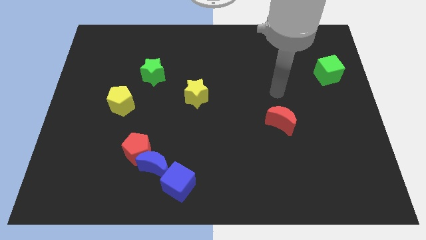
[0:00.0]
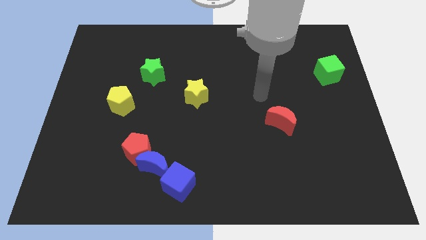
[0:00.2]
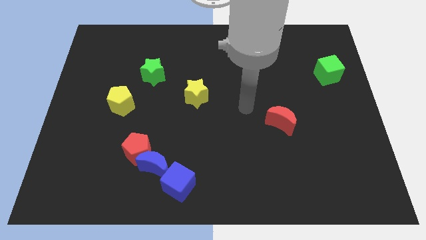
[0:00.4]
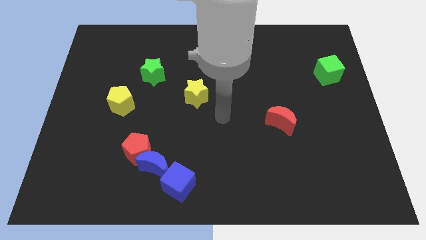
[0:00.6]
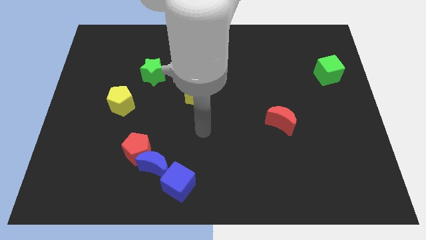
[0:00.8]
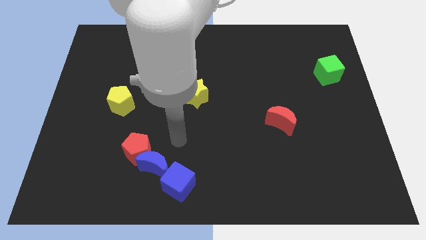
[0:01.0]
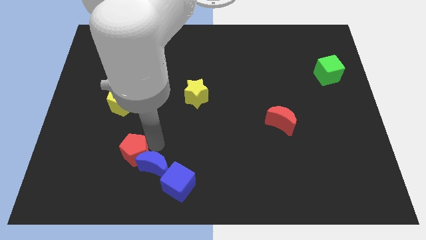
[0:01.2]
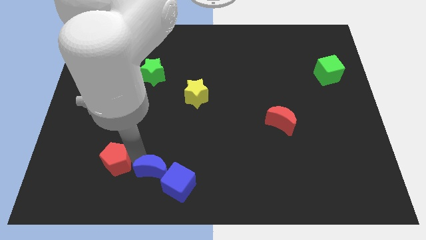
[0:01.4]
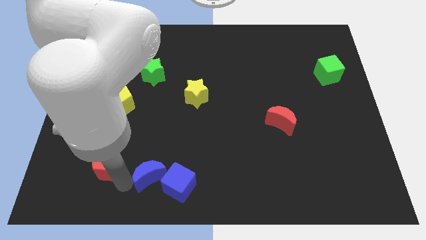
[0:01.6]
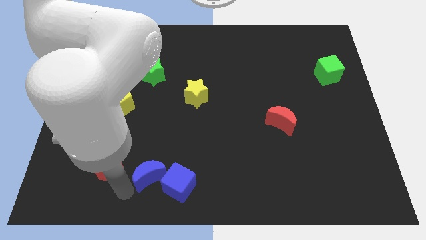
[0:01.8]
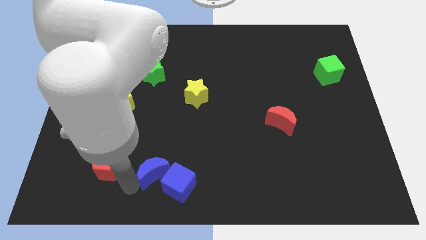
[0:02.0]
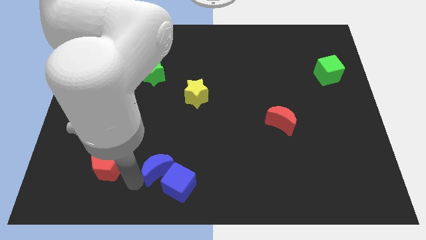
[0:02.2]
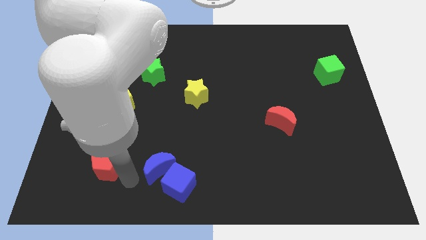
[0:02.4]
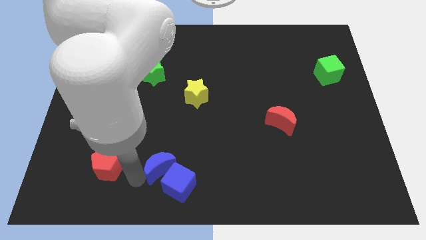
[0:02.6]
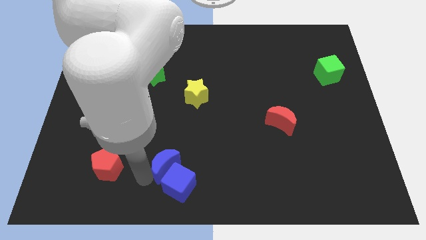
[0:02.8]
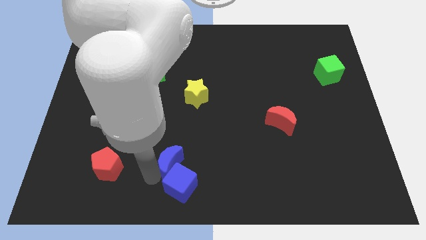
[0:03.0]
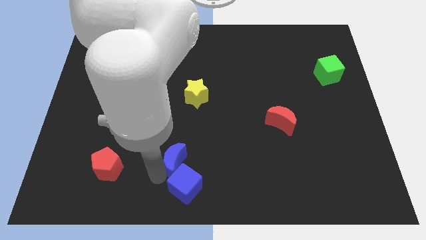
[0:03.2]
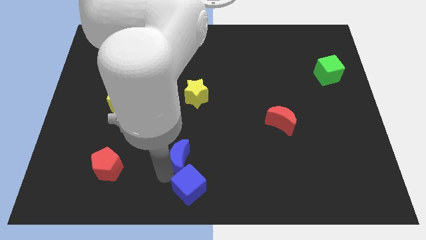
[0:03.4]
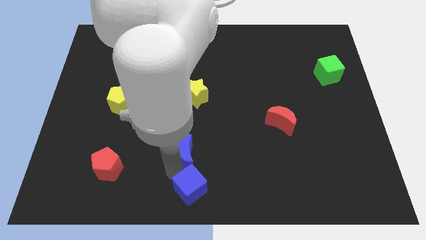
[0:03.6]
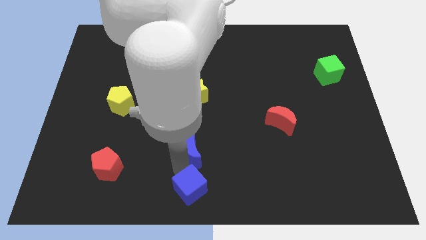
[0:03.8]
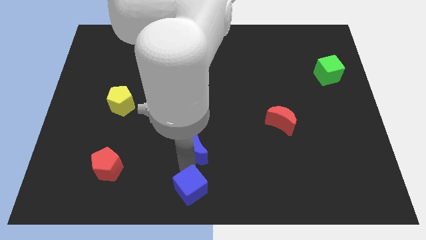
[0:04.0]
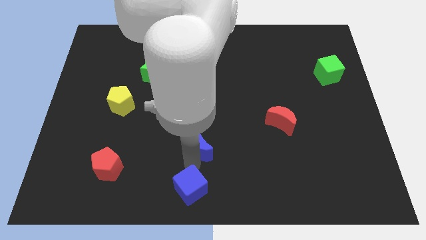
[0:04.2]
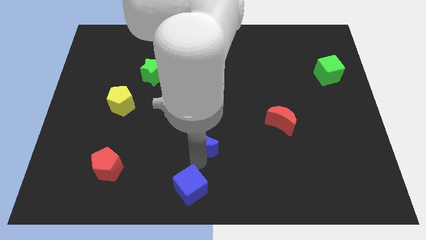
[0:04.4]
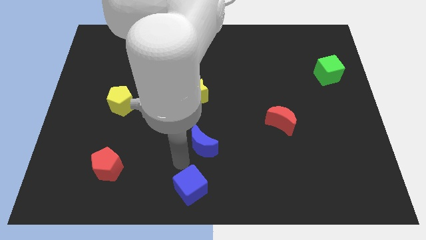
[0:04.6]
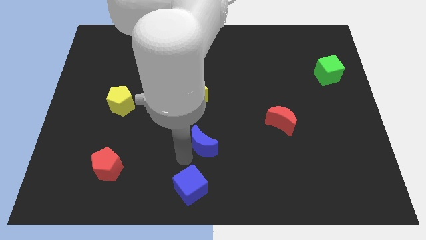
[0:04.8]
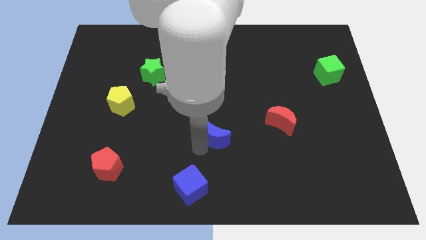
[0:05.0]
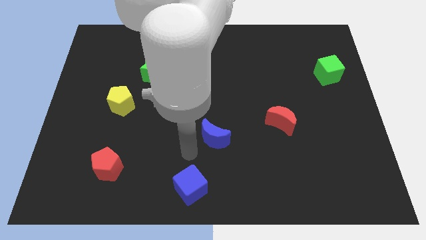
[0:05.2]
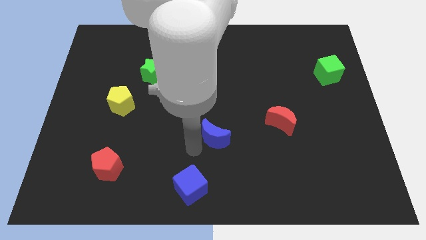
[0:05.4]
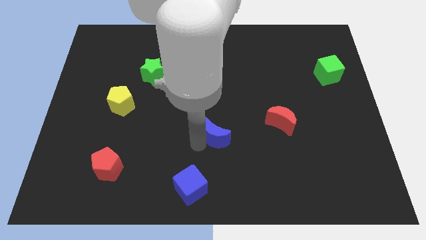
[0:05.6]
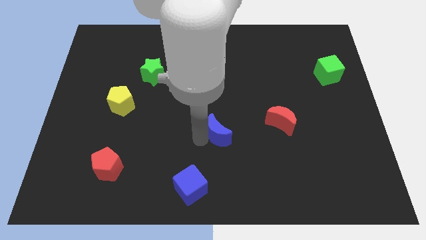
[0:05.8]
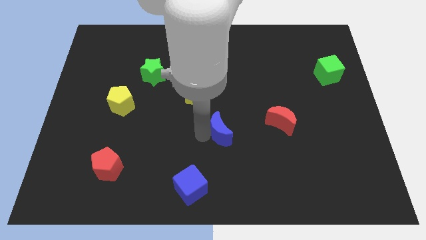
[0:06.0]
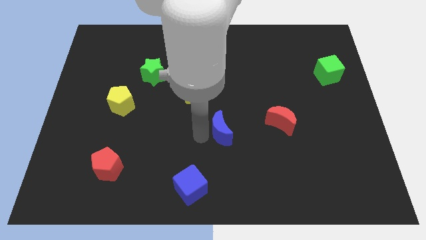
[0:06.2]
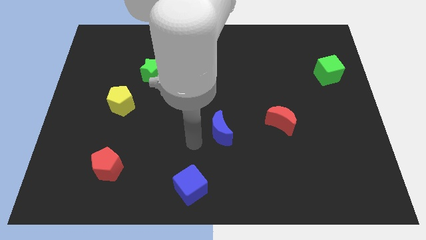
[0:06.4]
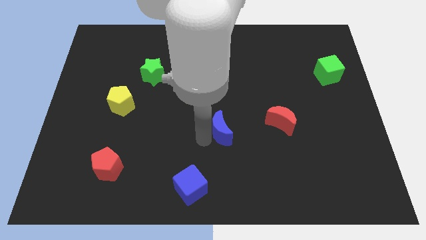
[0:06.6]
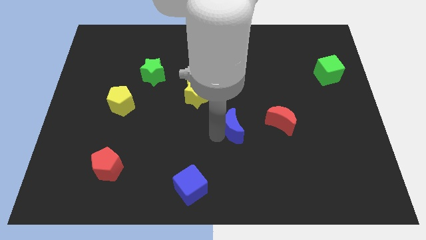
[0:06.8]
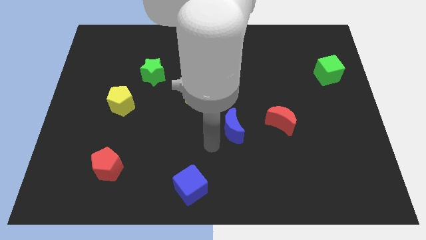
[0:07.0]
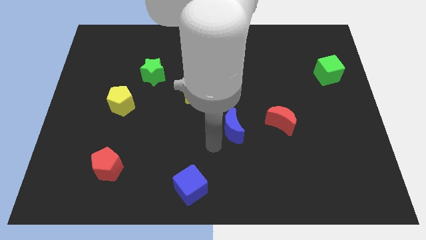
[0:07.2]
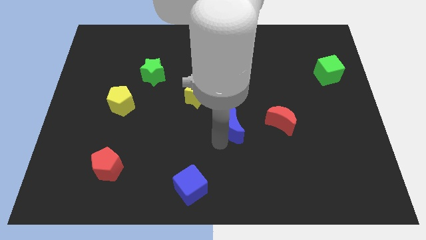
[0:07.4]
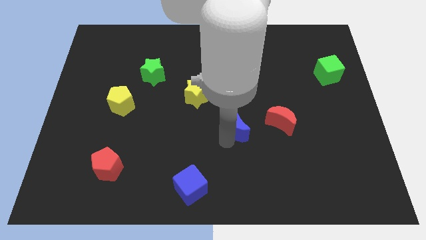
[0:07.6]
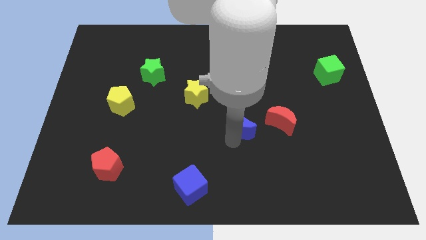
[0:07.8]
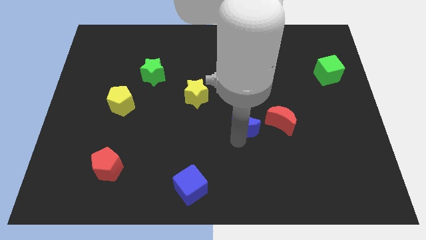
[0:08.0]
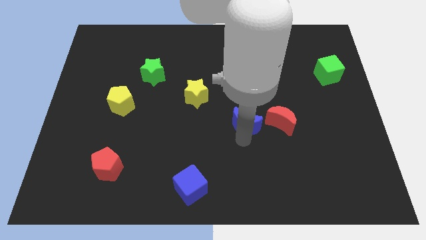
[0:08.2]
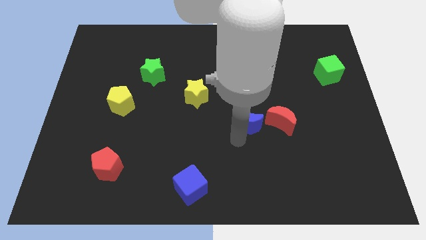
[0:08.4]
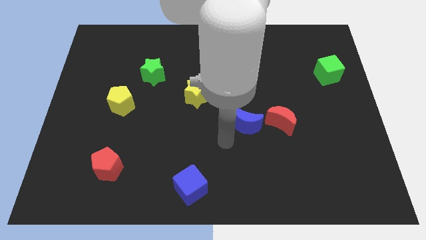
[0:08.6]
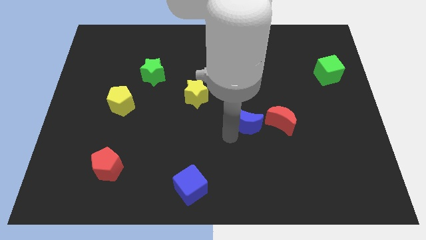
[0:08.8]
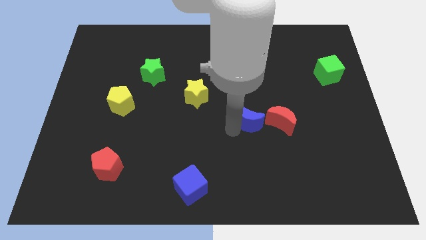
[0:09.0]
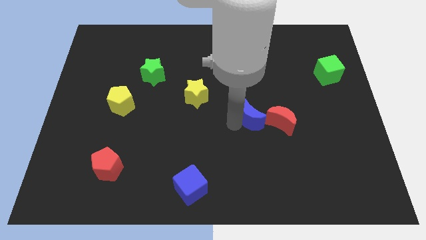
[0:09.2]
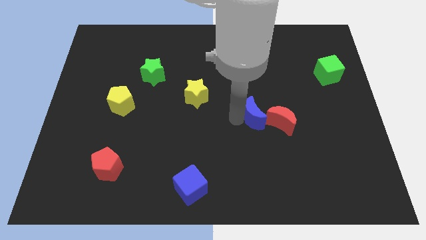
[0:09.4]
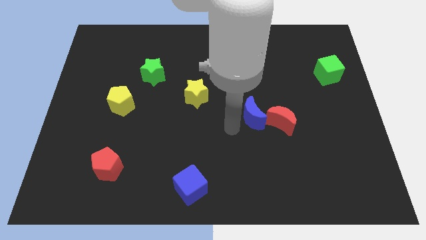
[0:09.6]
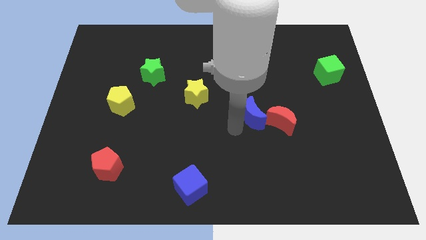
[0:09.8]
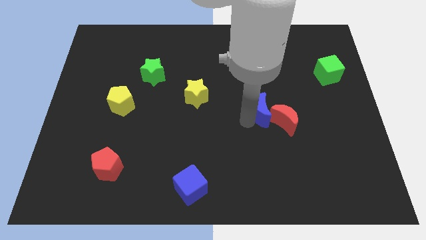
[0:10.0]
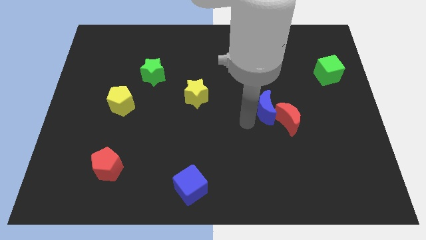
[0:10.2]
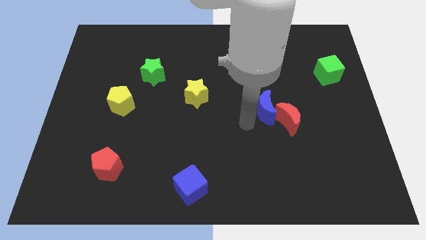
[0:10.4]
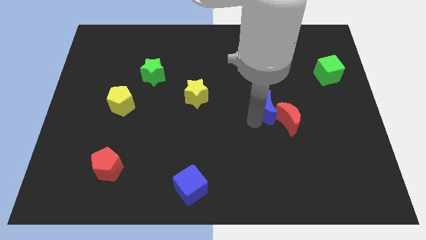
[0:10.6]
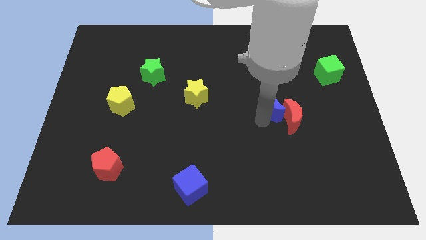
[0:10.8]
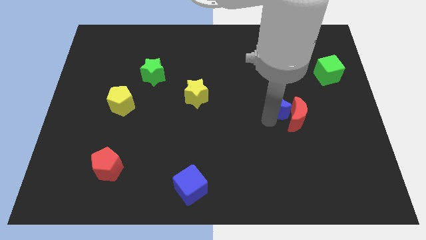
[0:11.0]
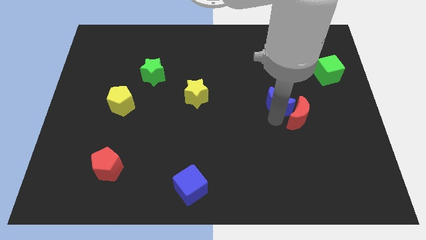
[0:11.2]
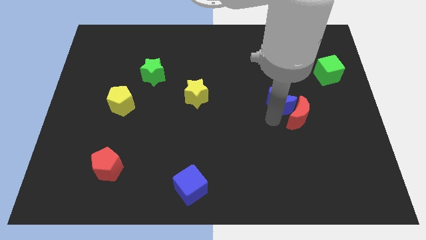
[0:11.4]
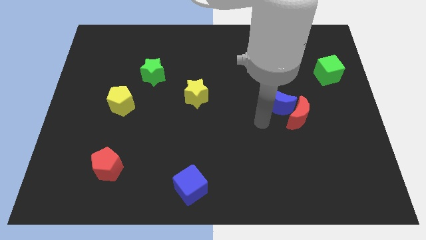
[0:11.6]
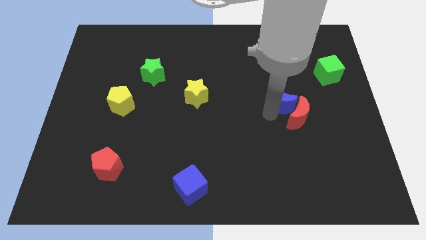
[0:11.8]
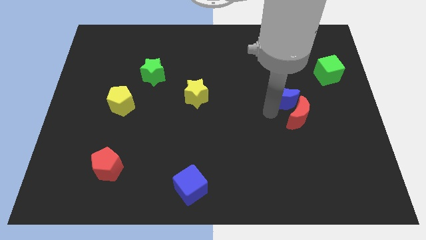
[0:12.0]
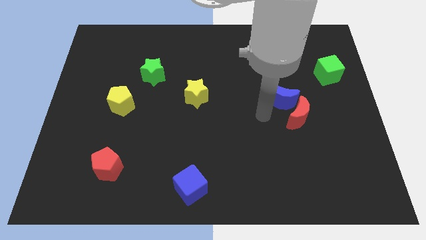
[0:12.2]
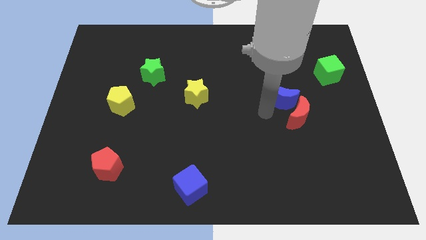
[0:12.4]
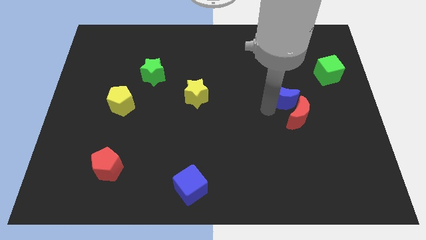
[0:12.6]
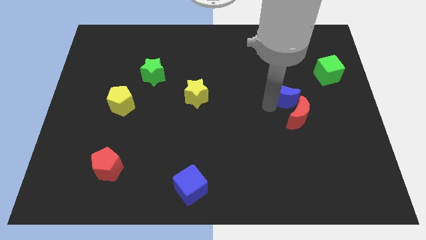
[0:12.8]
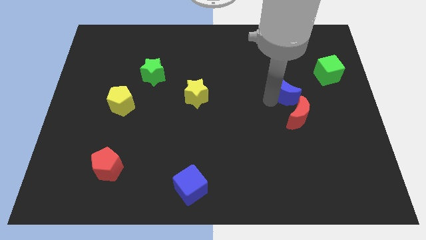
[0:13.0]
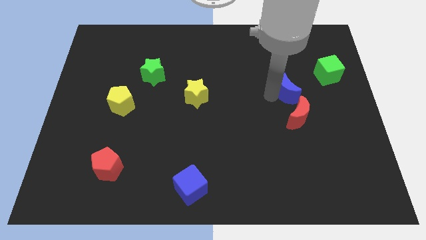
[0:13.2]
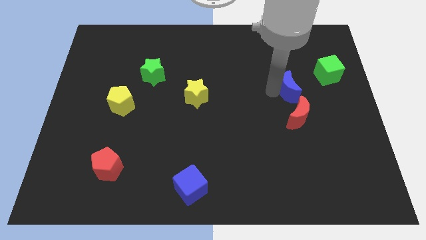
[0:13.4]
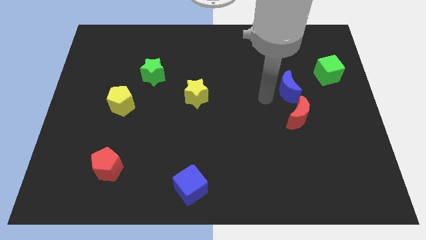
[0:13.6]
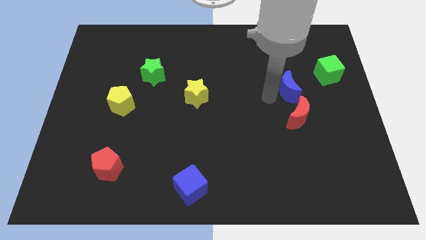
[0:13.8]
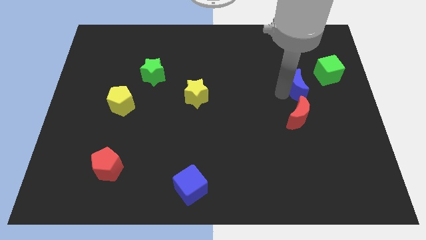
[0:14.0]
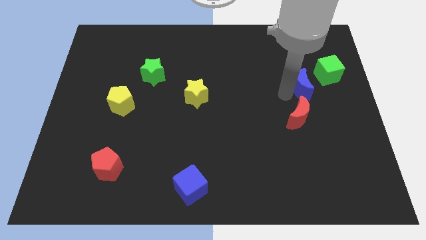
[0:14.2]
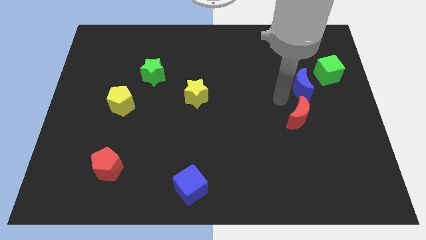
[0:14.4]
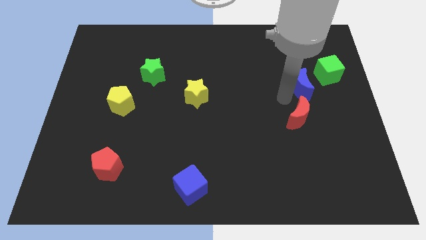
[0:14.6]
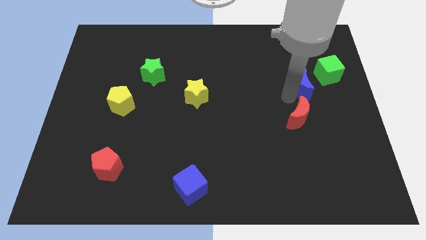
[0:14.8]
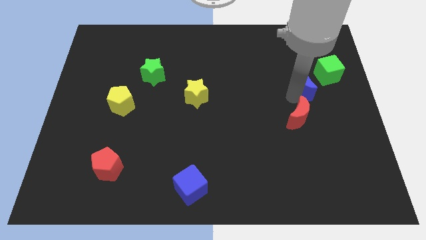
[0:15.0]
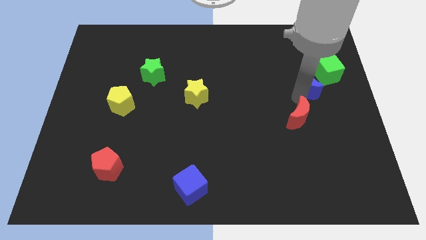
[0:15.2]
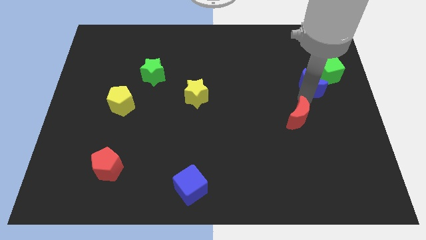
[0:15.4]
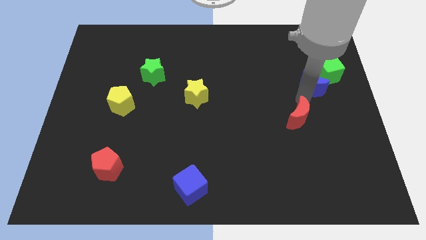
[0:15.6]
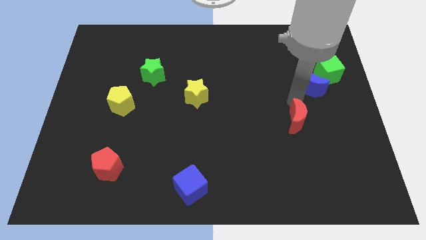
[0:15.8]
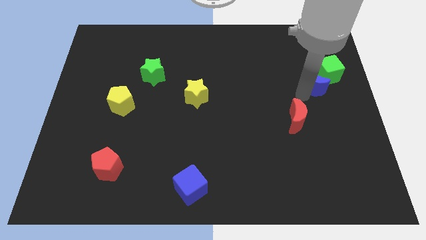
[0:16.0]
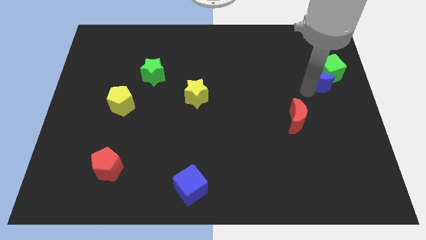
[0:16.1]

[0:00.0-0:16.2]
put the blue moon to the green cube
